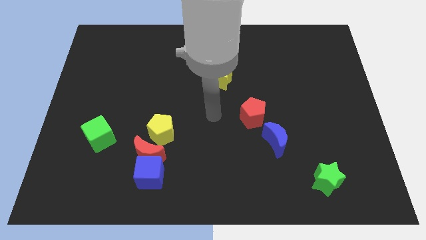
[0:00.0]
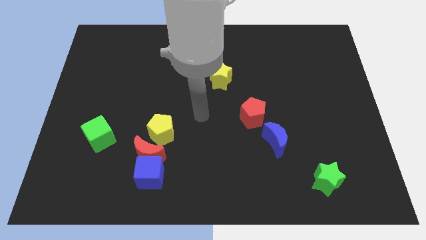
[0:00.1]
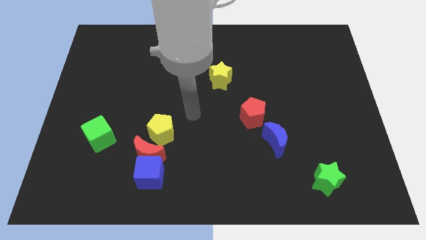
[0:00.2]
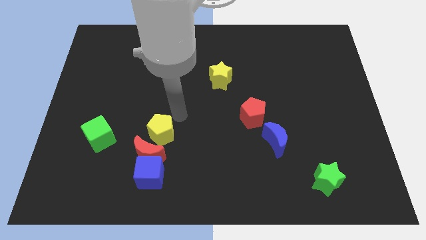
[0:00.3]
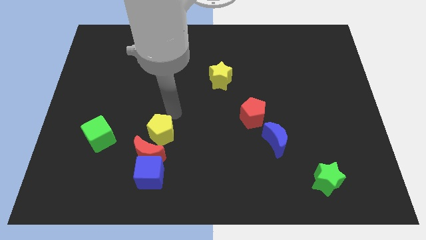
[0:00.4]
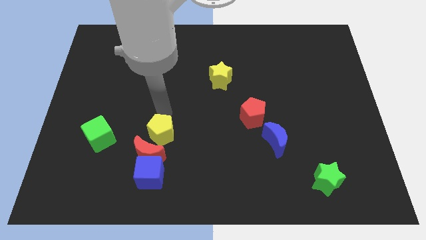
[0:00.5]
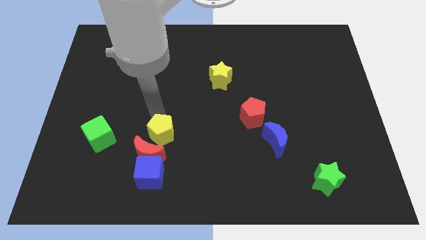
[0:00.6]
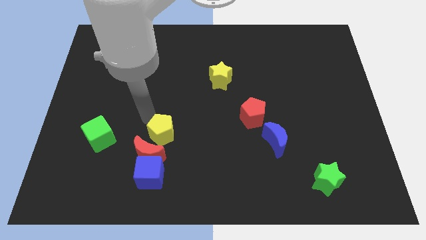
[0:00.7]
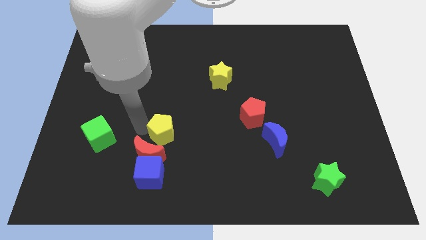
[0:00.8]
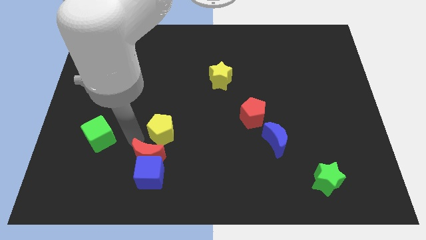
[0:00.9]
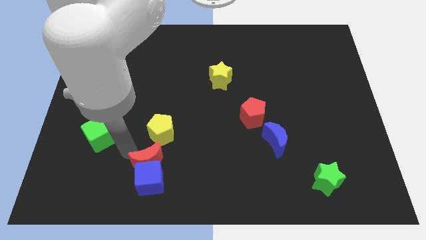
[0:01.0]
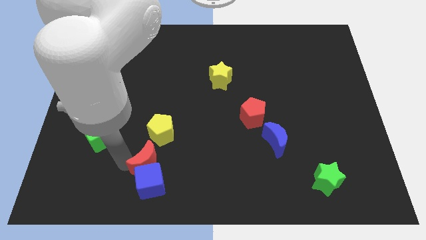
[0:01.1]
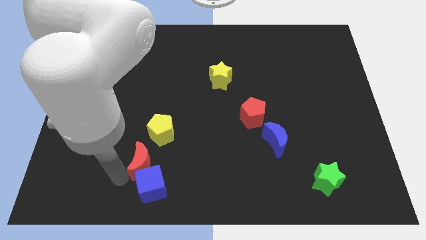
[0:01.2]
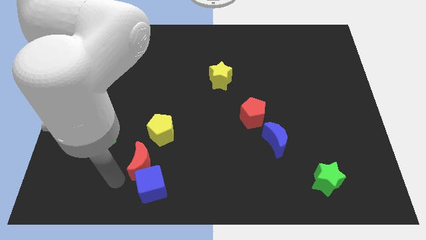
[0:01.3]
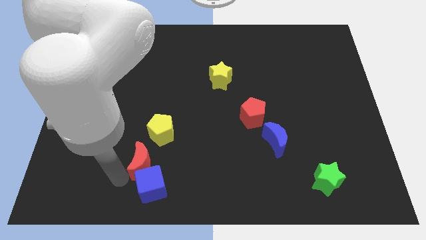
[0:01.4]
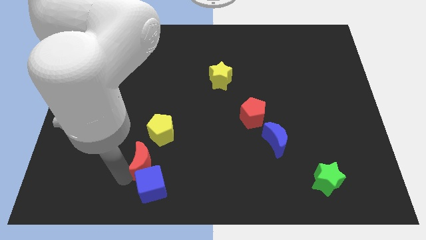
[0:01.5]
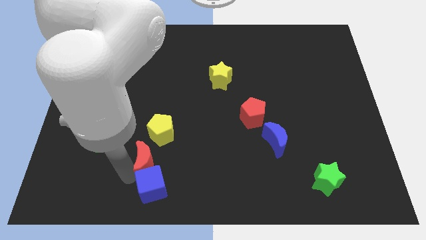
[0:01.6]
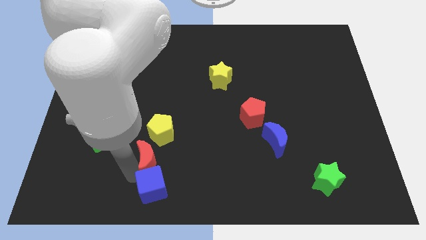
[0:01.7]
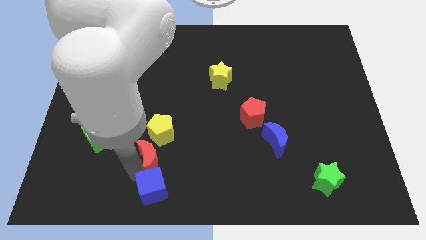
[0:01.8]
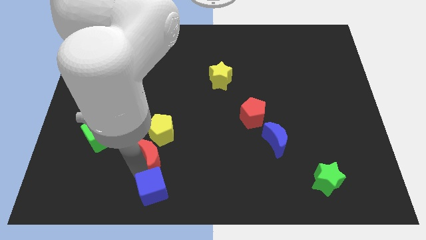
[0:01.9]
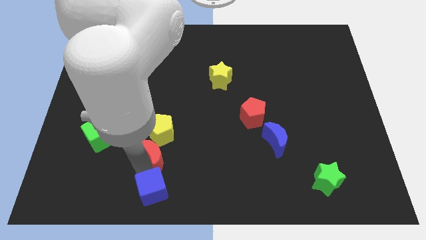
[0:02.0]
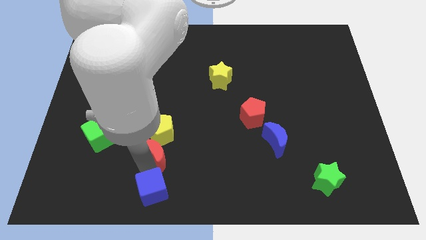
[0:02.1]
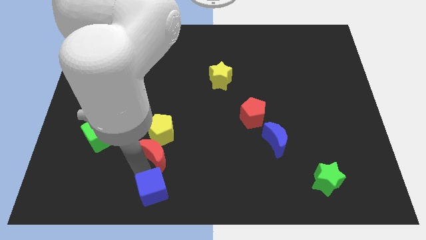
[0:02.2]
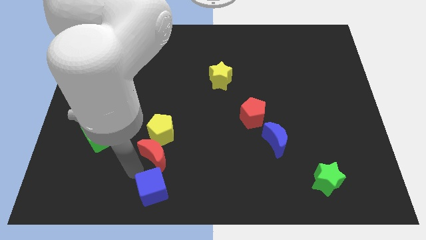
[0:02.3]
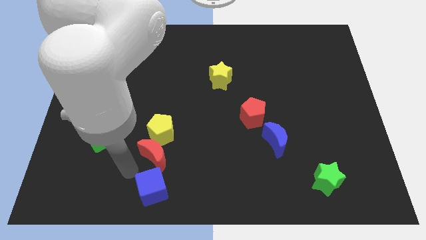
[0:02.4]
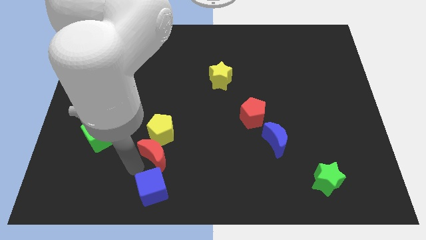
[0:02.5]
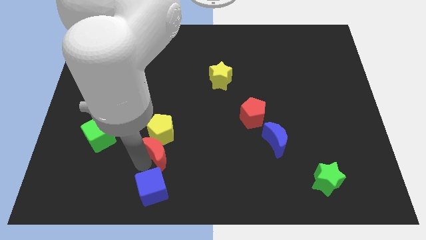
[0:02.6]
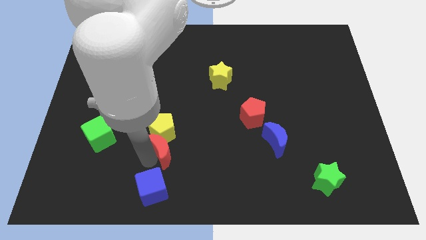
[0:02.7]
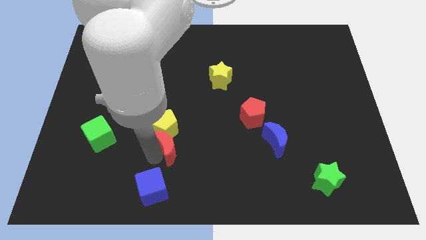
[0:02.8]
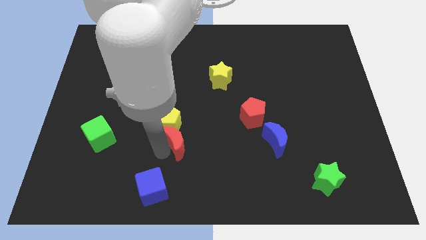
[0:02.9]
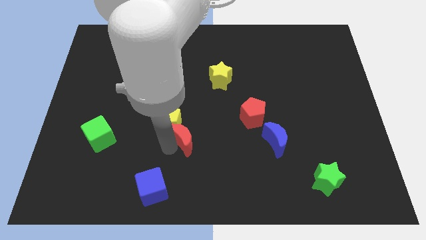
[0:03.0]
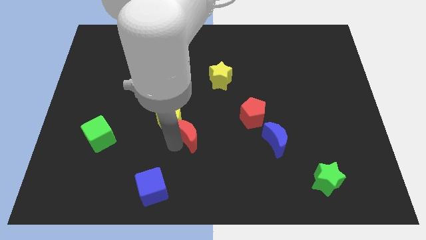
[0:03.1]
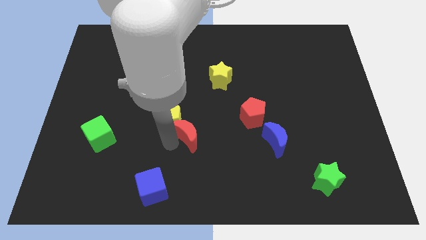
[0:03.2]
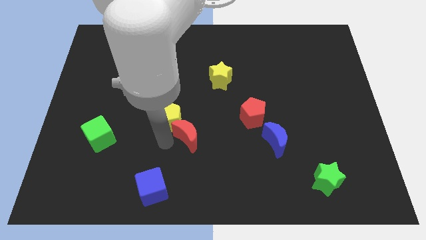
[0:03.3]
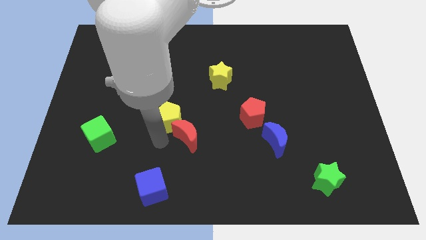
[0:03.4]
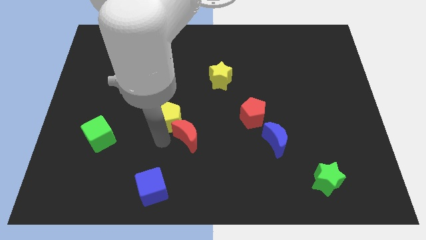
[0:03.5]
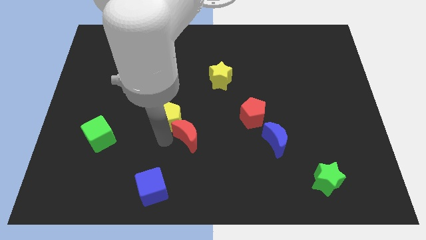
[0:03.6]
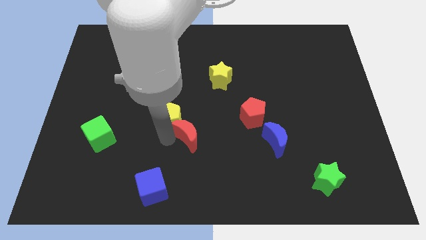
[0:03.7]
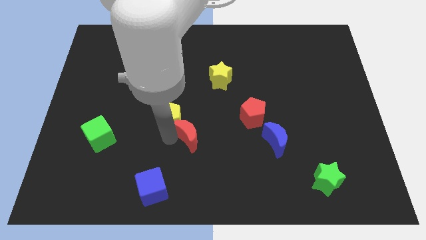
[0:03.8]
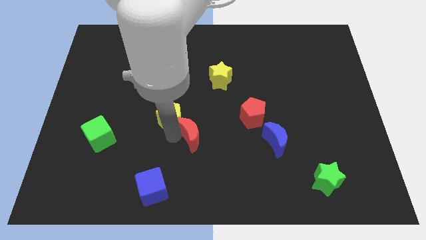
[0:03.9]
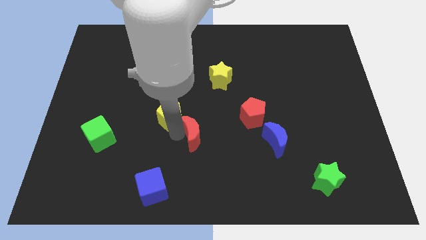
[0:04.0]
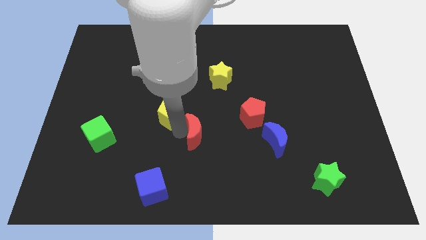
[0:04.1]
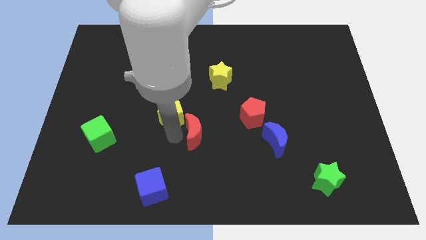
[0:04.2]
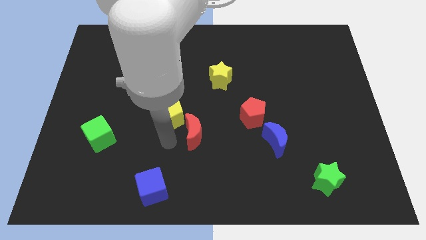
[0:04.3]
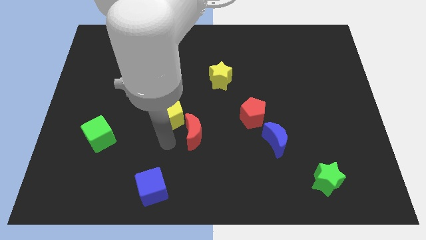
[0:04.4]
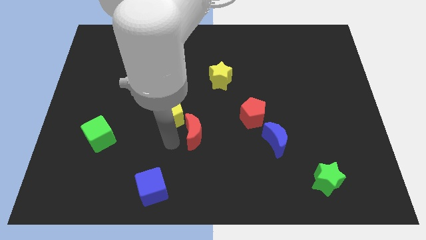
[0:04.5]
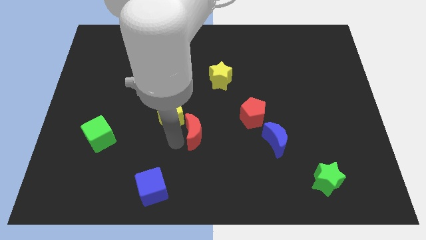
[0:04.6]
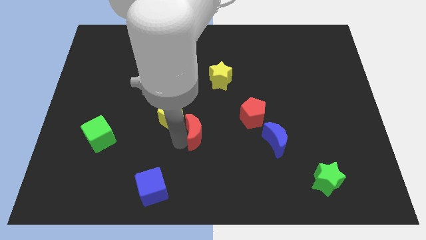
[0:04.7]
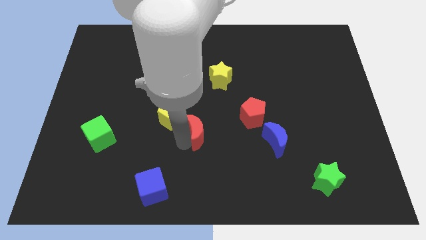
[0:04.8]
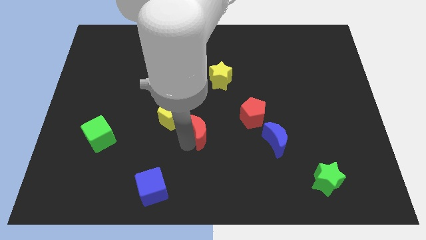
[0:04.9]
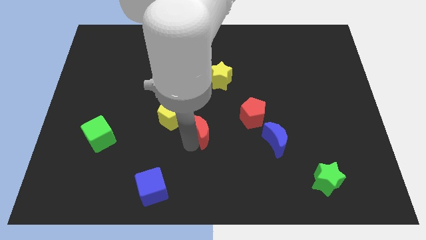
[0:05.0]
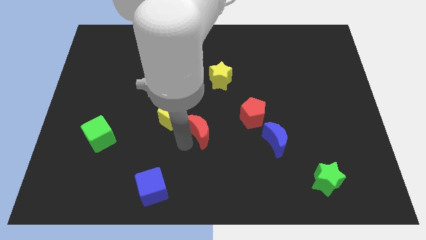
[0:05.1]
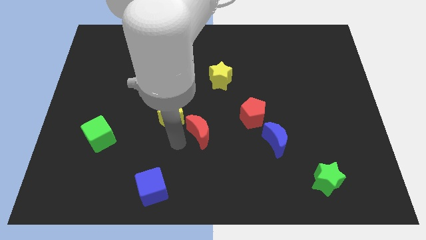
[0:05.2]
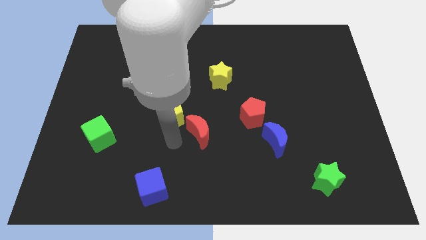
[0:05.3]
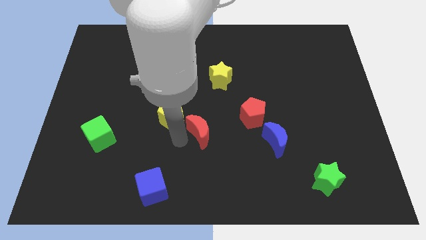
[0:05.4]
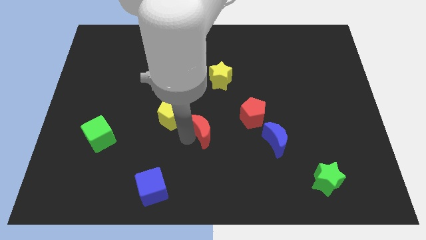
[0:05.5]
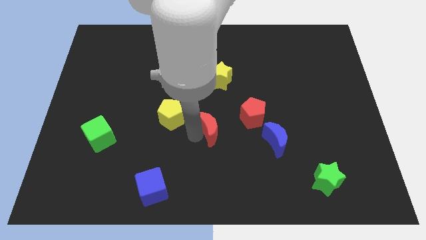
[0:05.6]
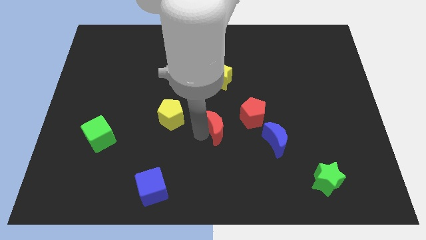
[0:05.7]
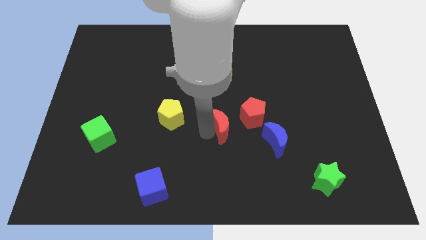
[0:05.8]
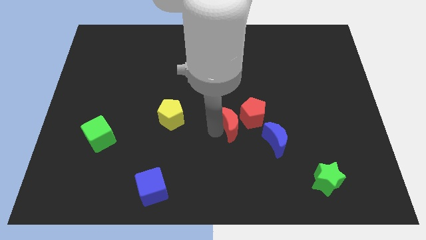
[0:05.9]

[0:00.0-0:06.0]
slide the red moon to the red pentagon

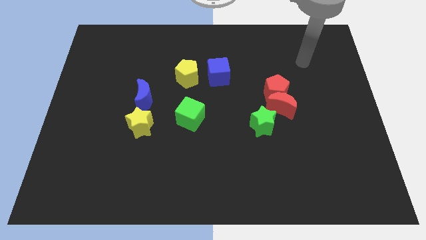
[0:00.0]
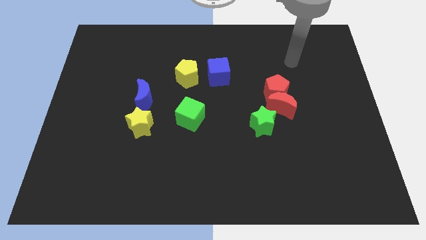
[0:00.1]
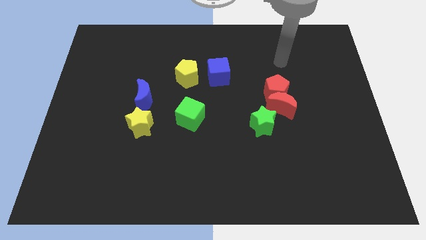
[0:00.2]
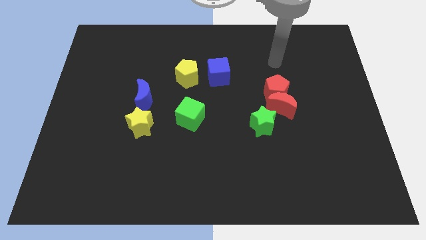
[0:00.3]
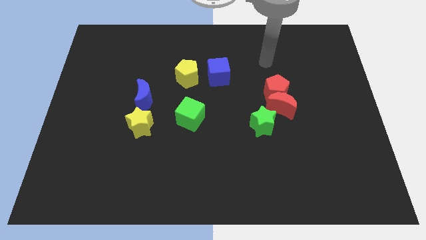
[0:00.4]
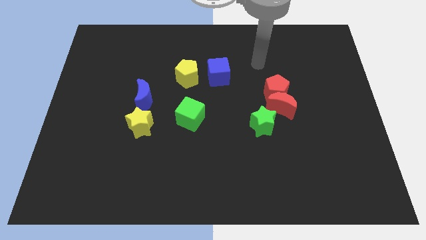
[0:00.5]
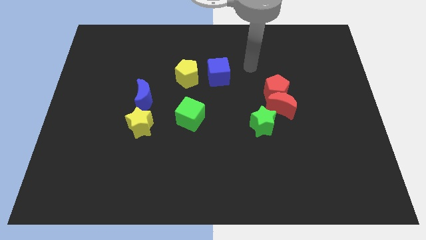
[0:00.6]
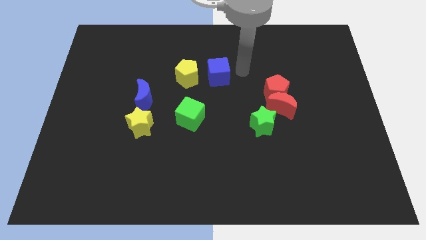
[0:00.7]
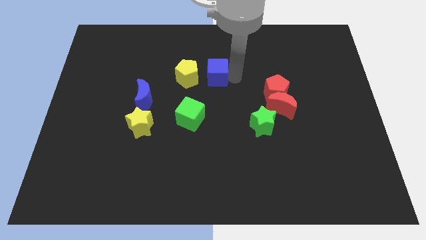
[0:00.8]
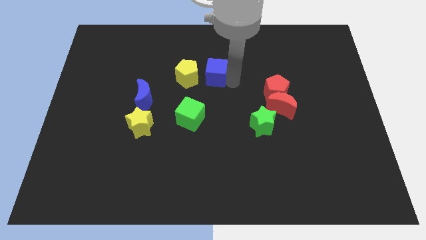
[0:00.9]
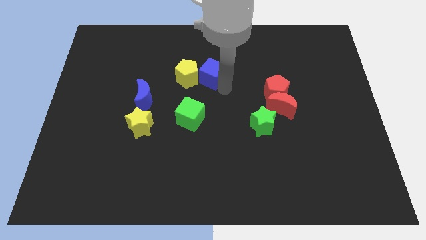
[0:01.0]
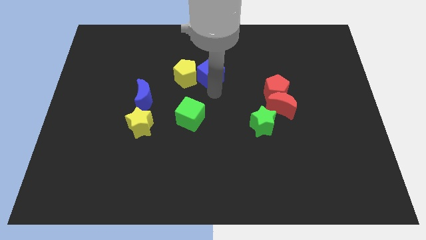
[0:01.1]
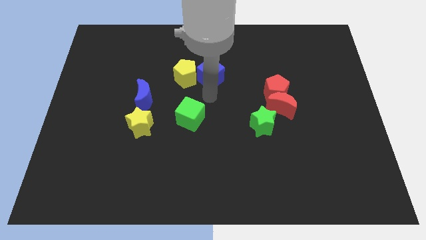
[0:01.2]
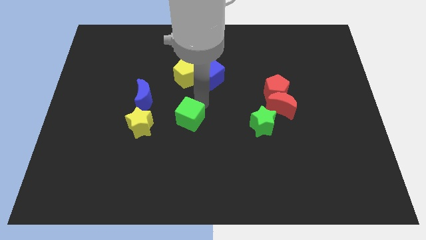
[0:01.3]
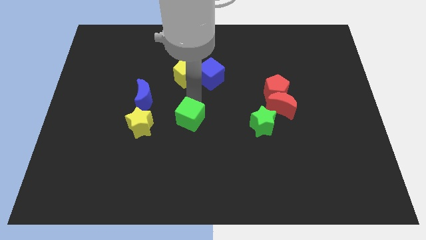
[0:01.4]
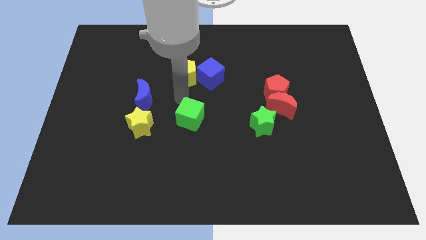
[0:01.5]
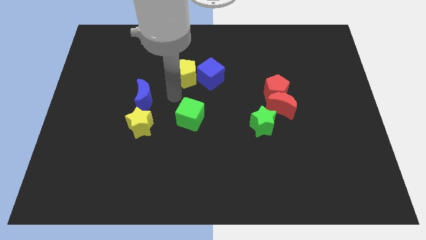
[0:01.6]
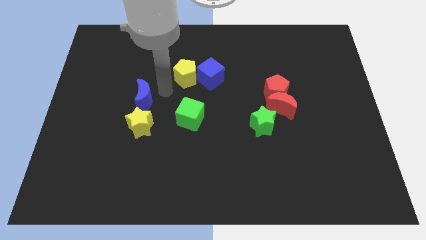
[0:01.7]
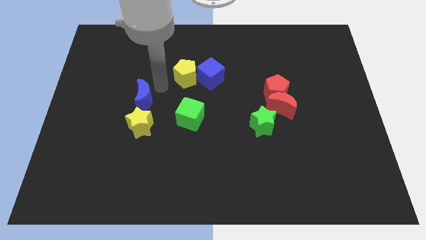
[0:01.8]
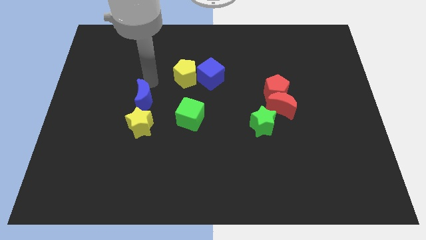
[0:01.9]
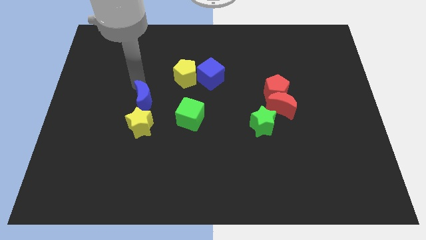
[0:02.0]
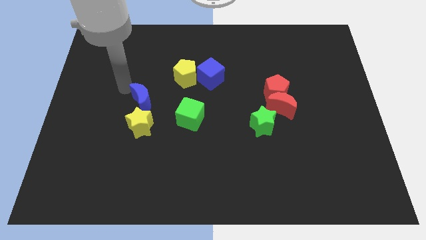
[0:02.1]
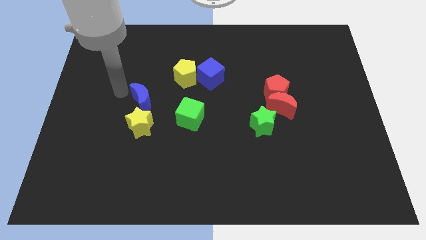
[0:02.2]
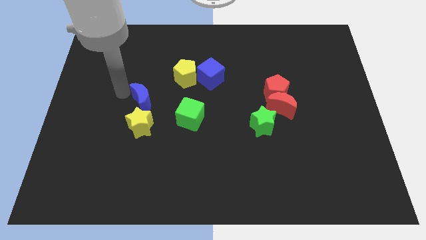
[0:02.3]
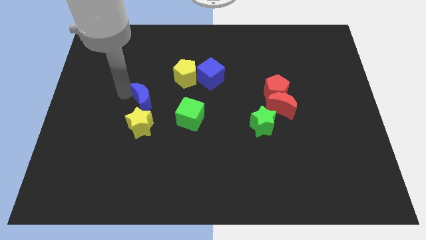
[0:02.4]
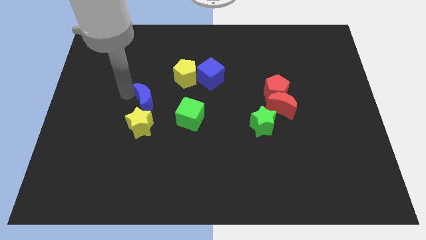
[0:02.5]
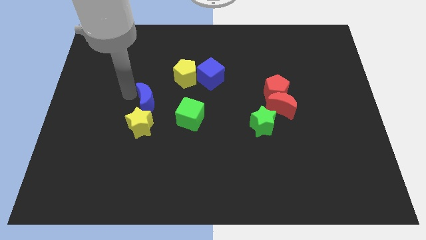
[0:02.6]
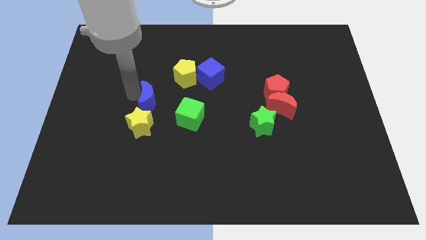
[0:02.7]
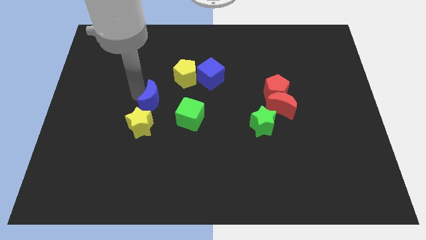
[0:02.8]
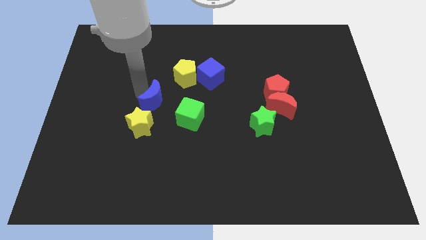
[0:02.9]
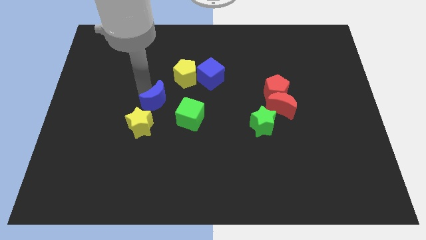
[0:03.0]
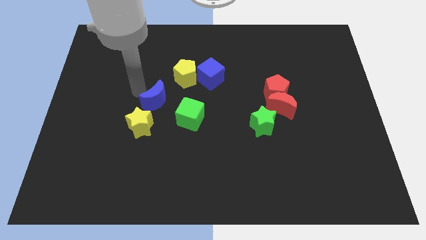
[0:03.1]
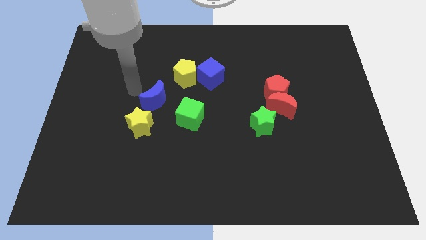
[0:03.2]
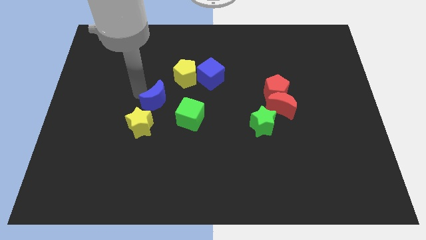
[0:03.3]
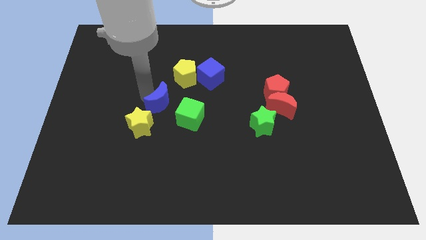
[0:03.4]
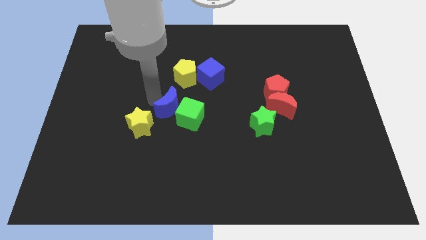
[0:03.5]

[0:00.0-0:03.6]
push the blue moon to the green cube
